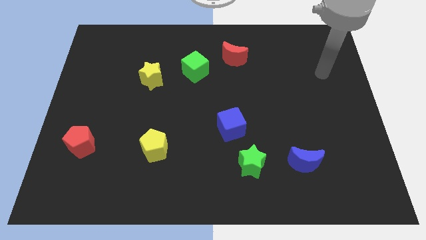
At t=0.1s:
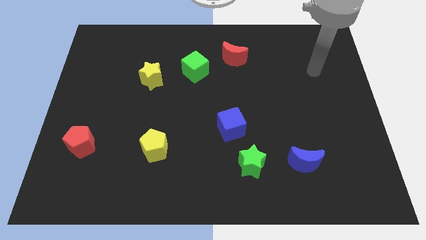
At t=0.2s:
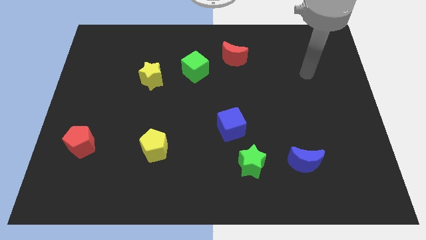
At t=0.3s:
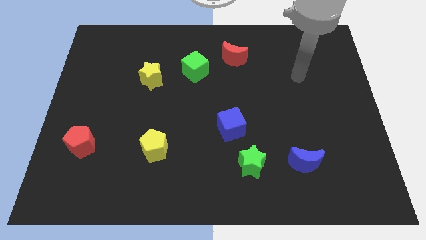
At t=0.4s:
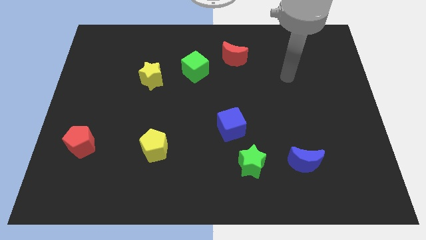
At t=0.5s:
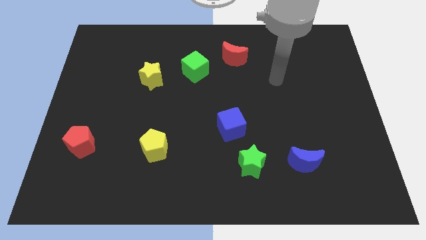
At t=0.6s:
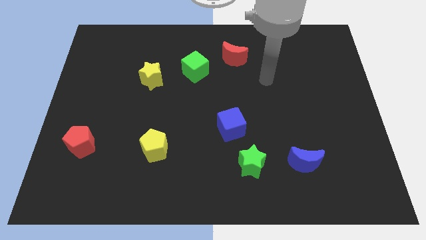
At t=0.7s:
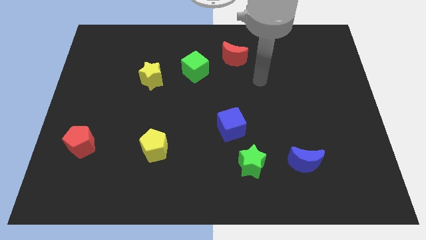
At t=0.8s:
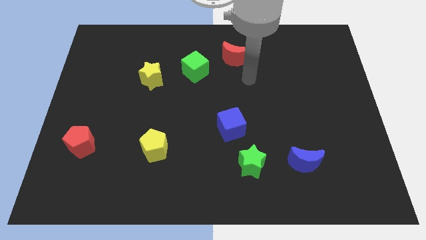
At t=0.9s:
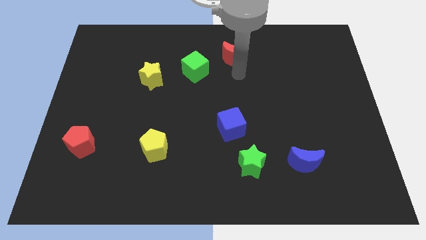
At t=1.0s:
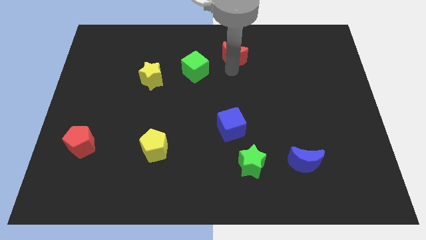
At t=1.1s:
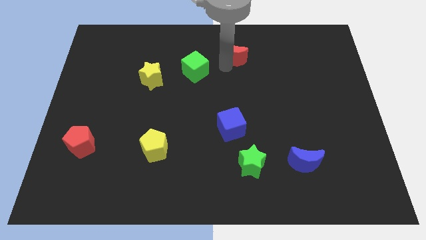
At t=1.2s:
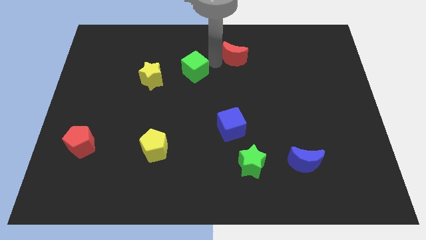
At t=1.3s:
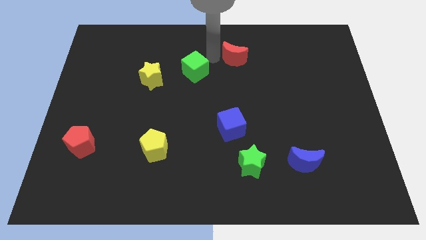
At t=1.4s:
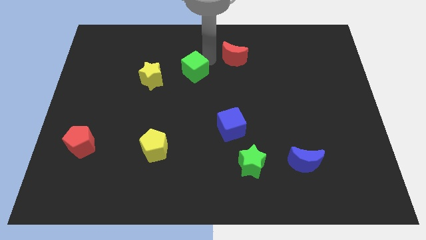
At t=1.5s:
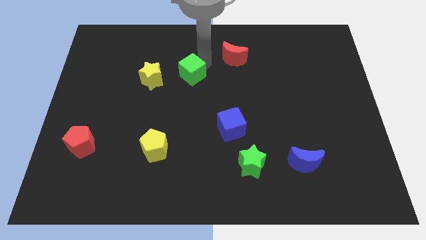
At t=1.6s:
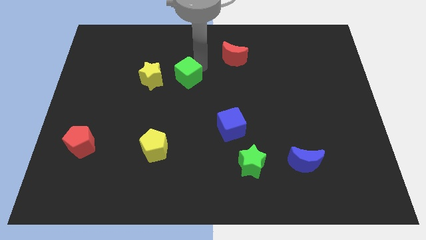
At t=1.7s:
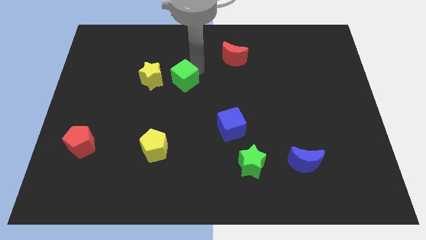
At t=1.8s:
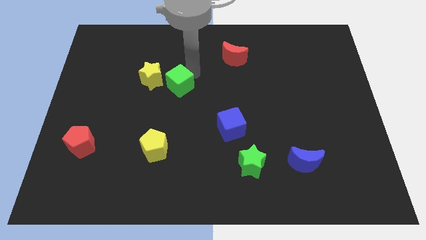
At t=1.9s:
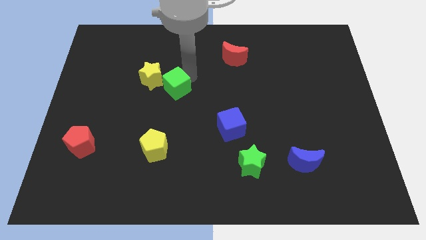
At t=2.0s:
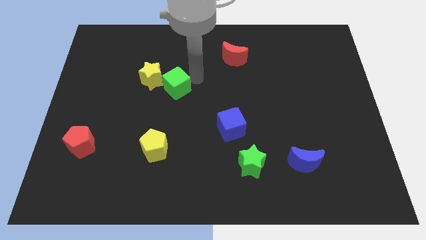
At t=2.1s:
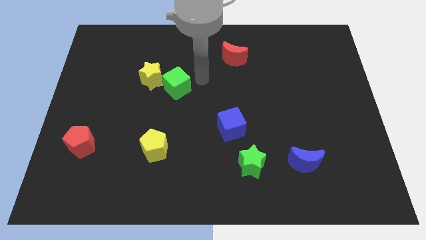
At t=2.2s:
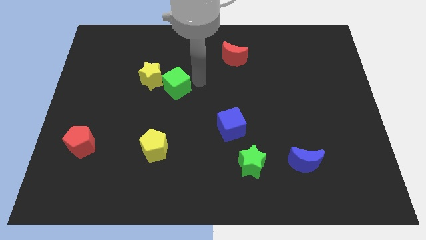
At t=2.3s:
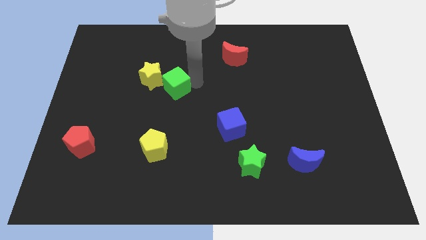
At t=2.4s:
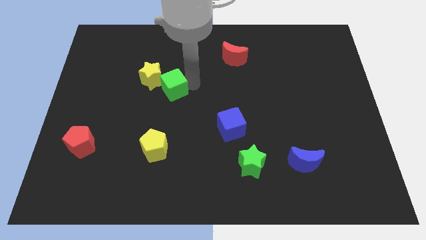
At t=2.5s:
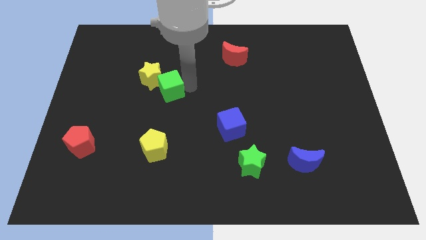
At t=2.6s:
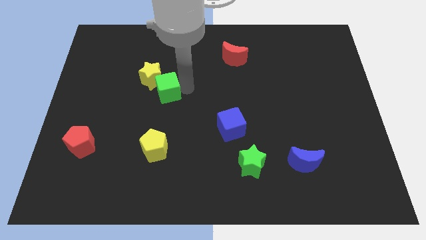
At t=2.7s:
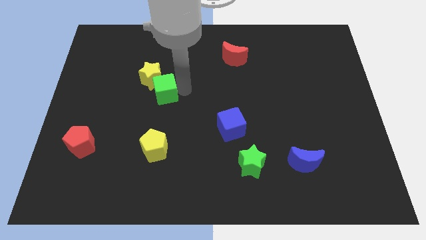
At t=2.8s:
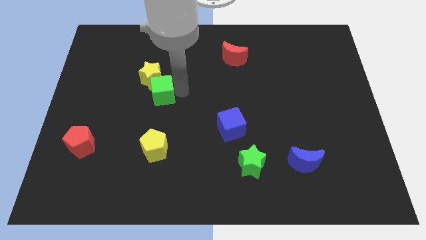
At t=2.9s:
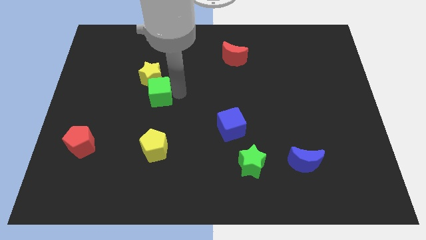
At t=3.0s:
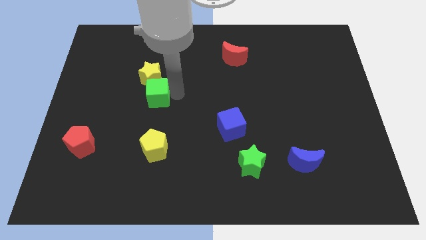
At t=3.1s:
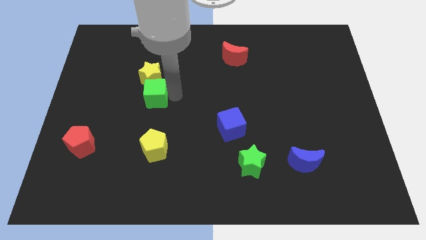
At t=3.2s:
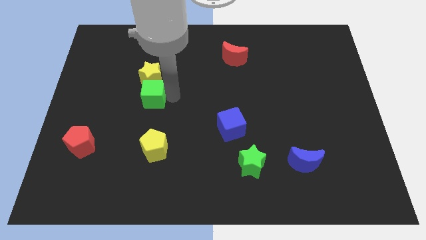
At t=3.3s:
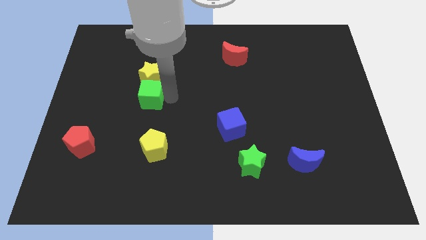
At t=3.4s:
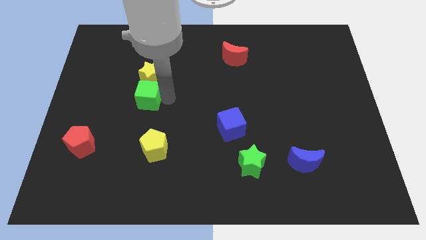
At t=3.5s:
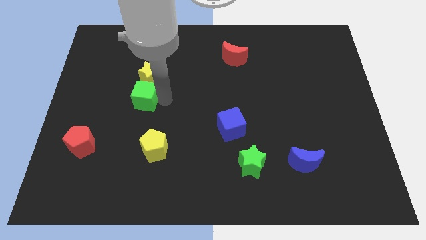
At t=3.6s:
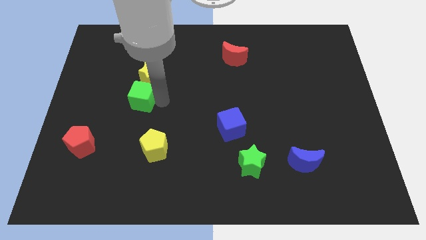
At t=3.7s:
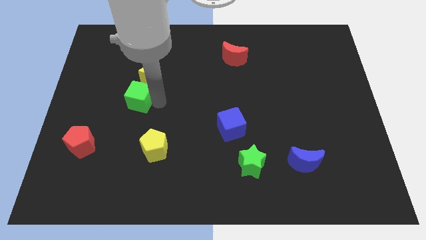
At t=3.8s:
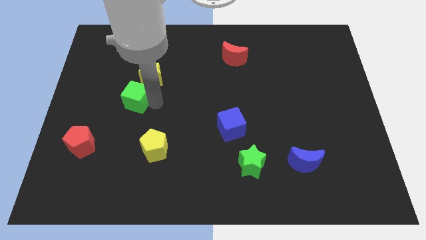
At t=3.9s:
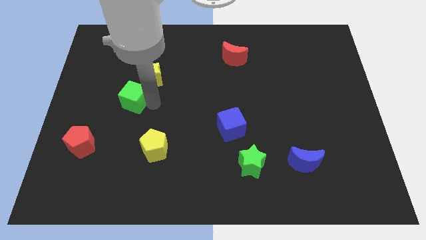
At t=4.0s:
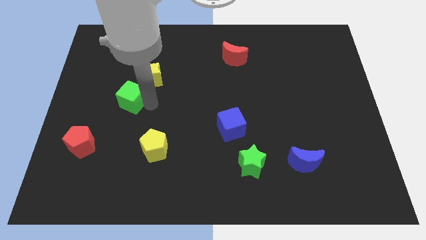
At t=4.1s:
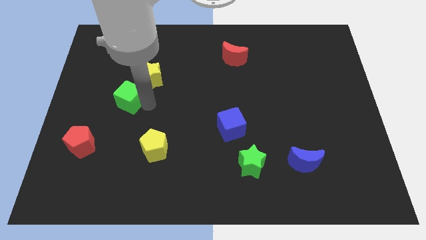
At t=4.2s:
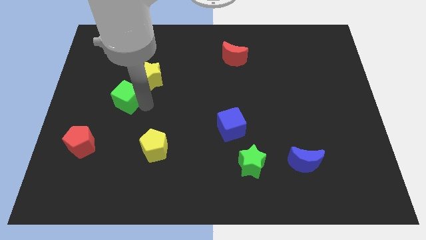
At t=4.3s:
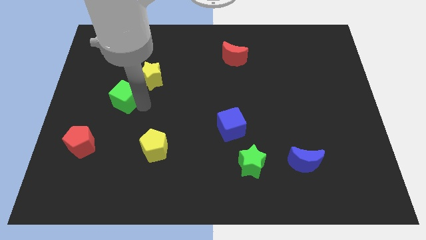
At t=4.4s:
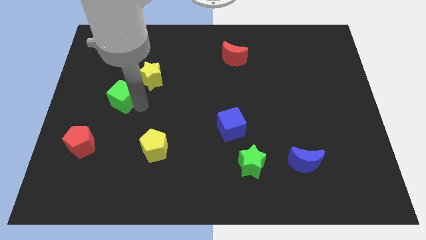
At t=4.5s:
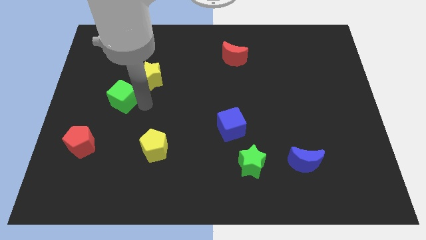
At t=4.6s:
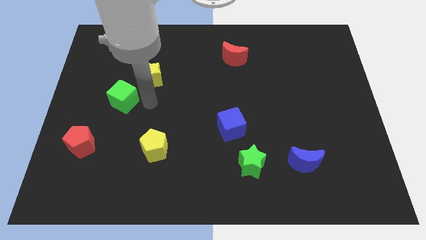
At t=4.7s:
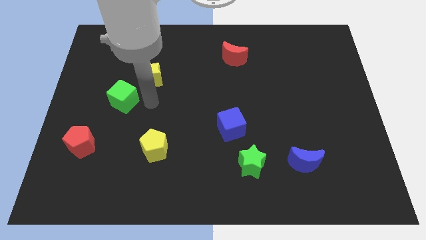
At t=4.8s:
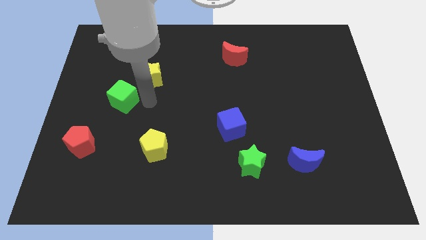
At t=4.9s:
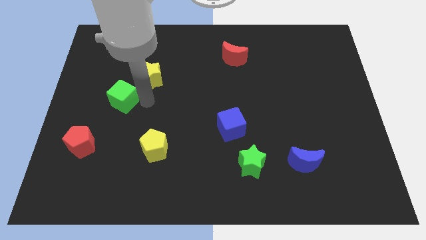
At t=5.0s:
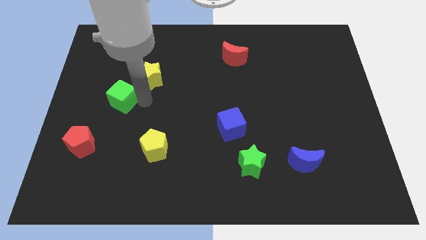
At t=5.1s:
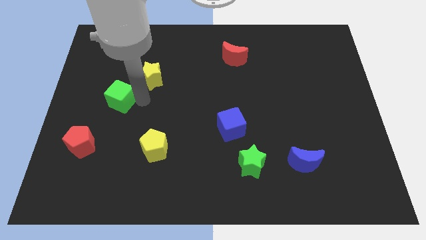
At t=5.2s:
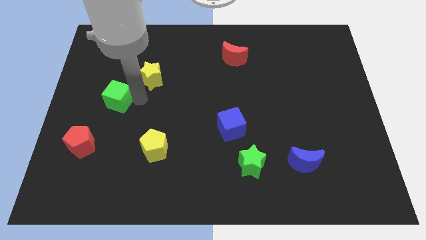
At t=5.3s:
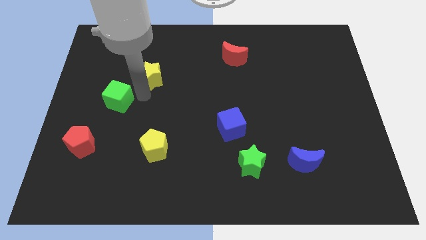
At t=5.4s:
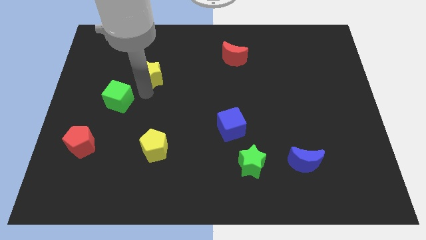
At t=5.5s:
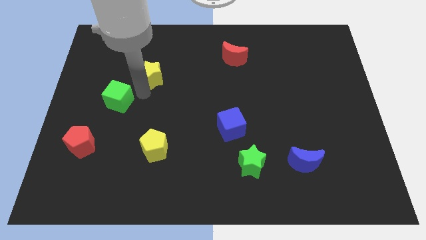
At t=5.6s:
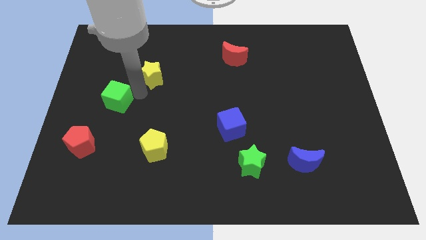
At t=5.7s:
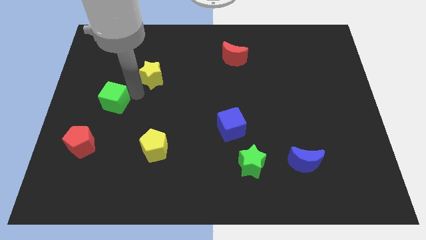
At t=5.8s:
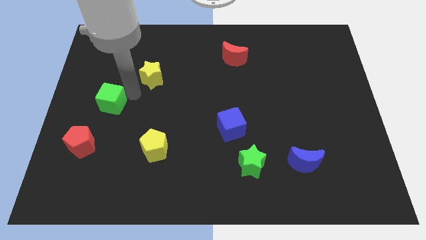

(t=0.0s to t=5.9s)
push the green cube to the top of the red pentagon

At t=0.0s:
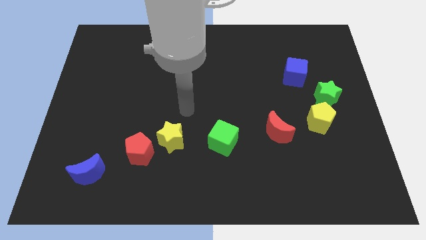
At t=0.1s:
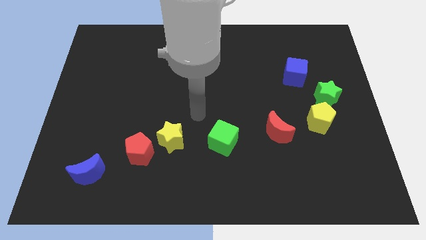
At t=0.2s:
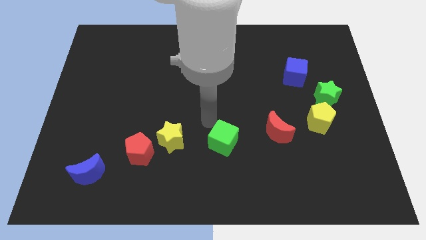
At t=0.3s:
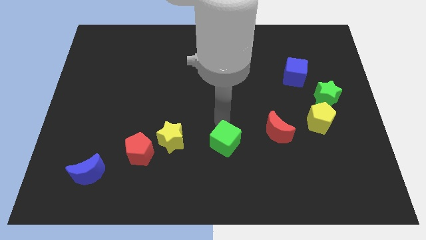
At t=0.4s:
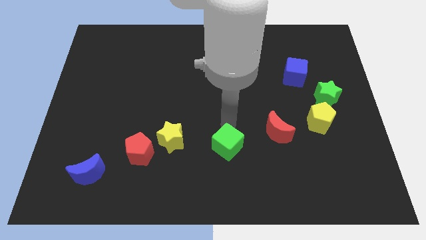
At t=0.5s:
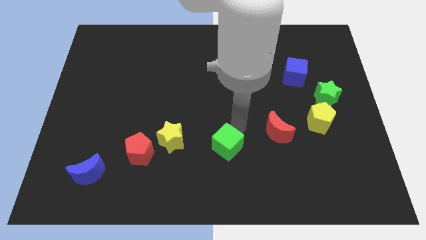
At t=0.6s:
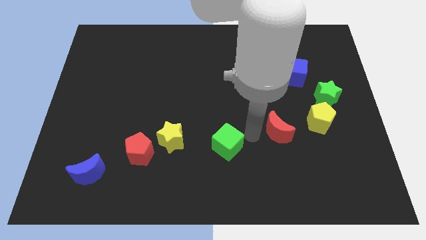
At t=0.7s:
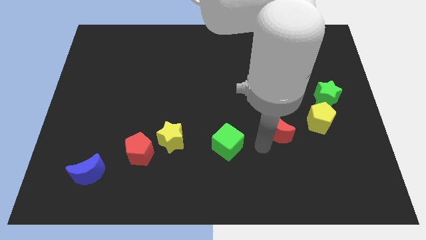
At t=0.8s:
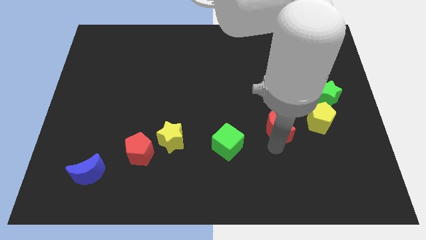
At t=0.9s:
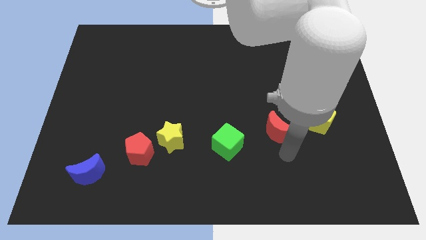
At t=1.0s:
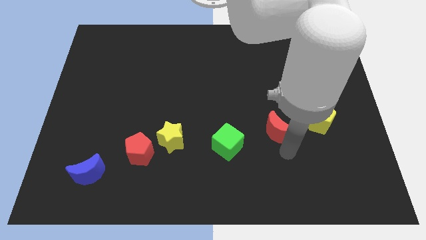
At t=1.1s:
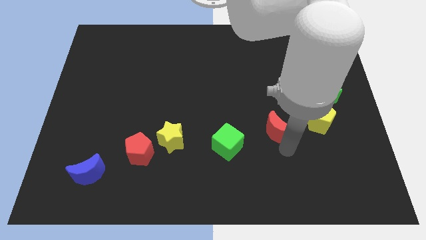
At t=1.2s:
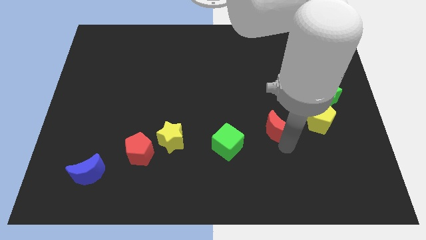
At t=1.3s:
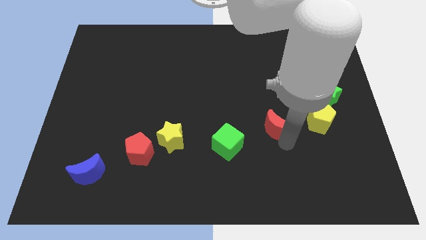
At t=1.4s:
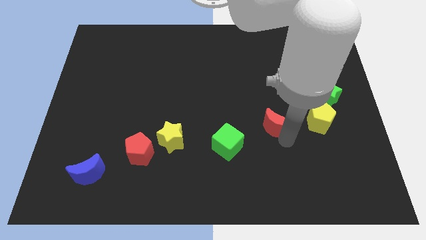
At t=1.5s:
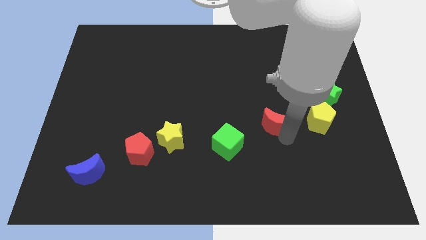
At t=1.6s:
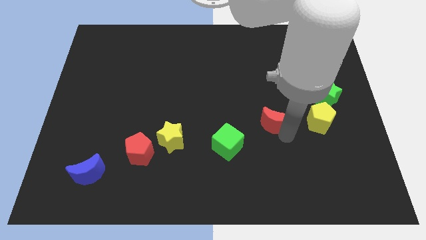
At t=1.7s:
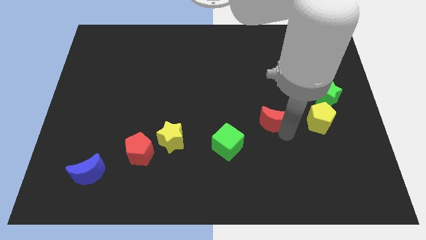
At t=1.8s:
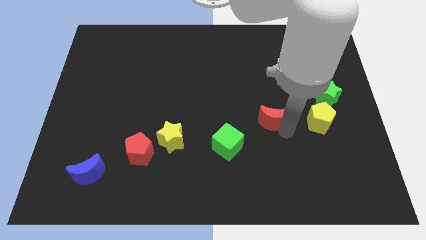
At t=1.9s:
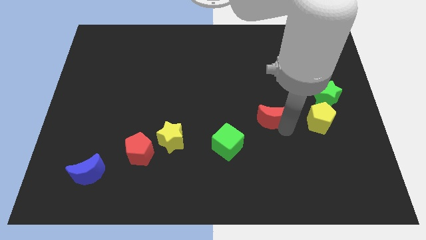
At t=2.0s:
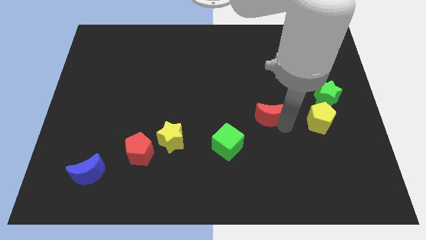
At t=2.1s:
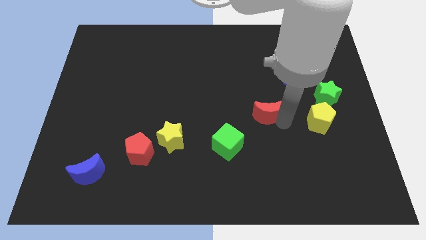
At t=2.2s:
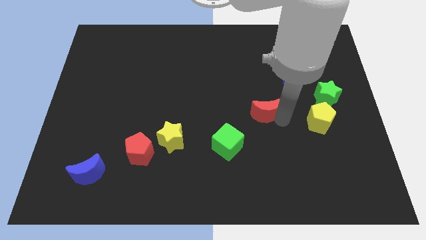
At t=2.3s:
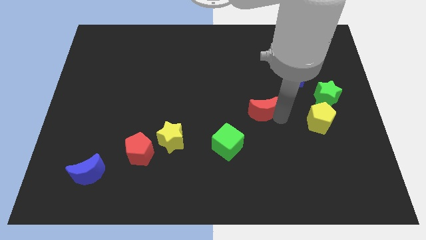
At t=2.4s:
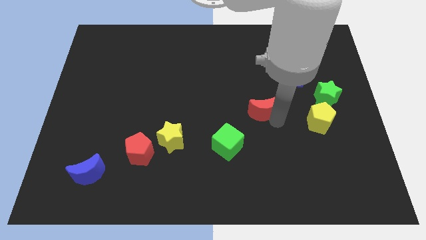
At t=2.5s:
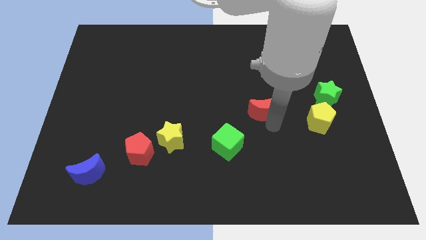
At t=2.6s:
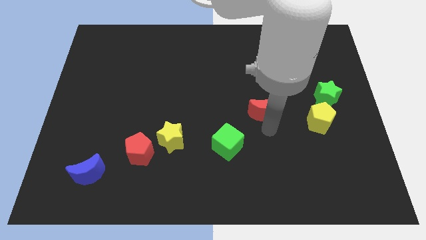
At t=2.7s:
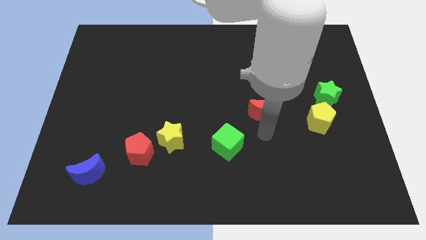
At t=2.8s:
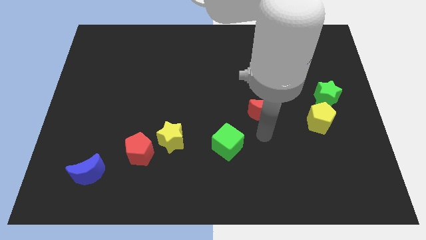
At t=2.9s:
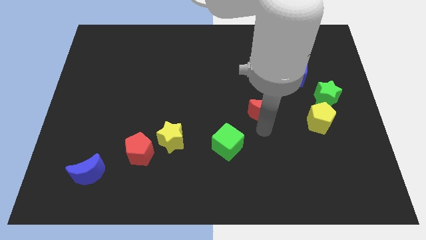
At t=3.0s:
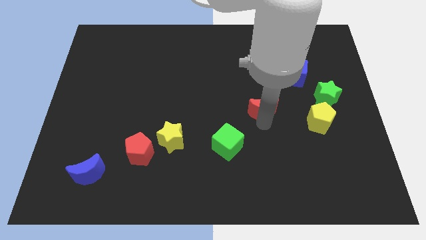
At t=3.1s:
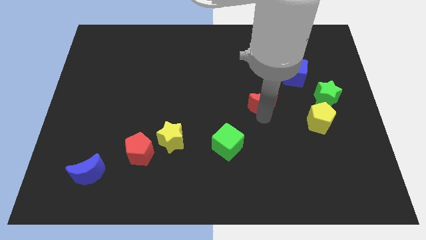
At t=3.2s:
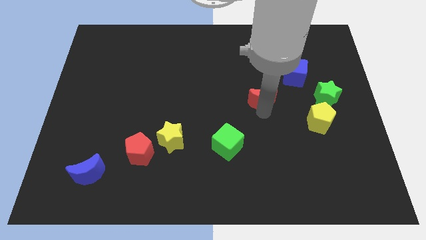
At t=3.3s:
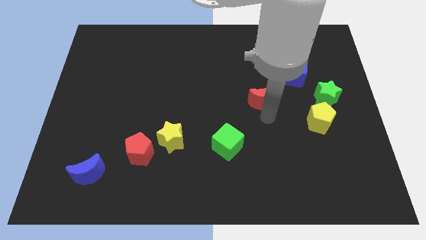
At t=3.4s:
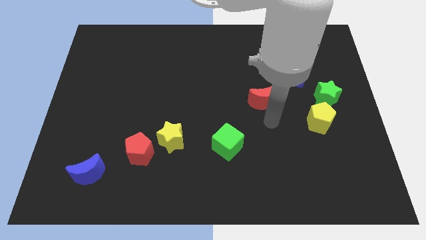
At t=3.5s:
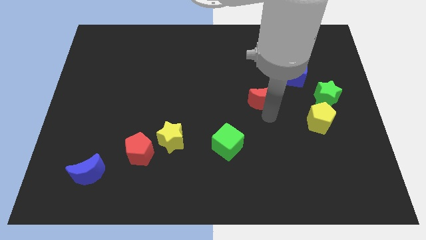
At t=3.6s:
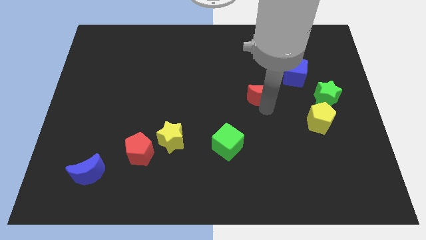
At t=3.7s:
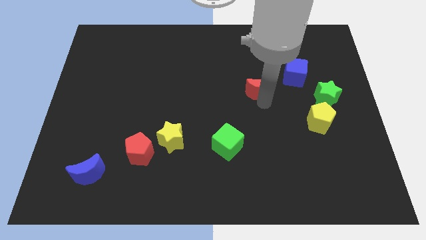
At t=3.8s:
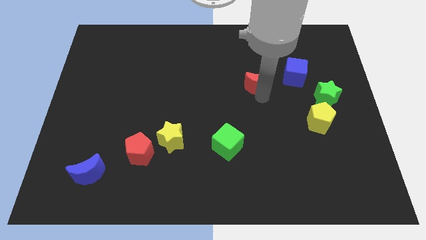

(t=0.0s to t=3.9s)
put the red moon left of the blue cube
